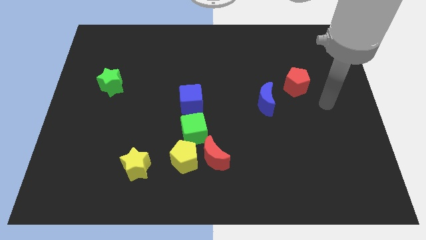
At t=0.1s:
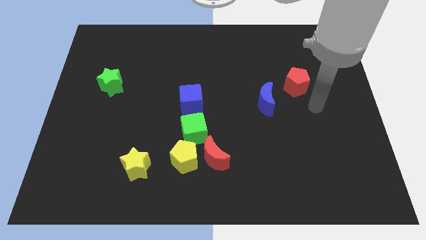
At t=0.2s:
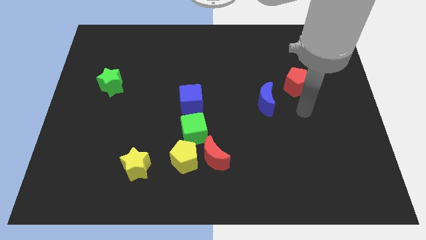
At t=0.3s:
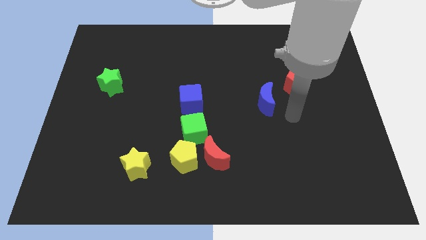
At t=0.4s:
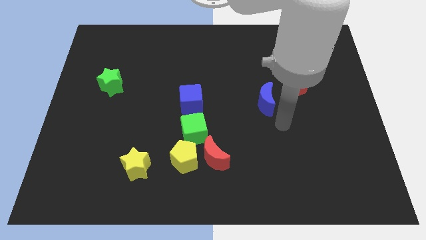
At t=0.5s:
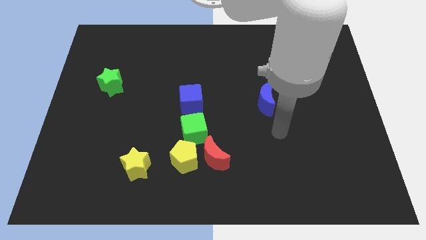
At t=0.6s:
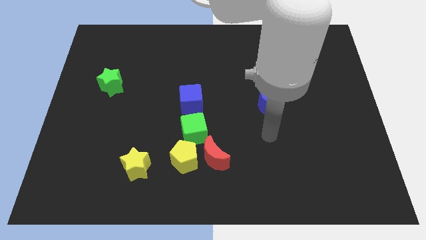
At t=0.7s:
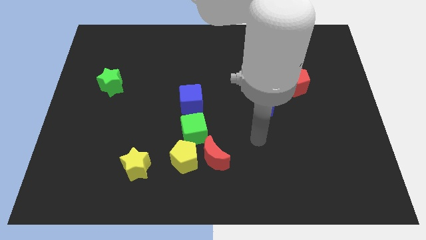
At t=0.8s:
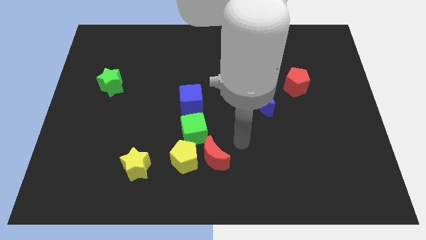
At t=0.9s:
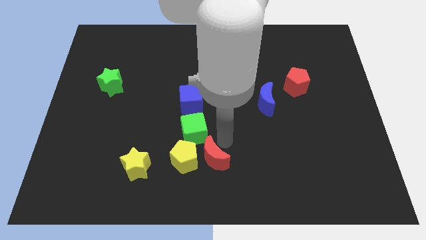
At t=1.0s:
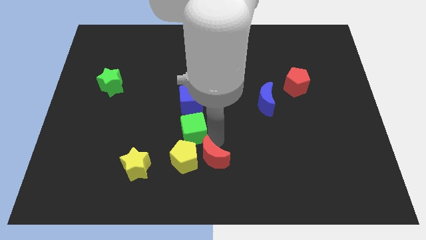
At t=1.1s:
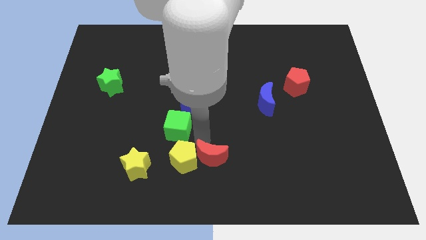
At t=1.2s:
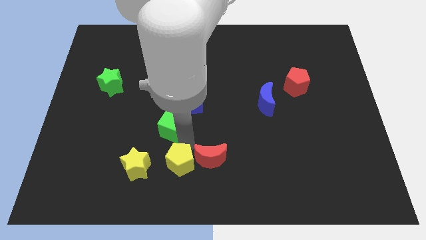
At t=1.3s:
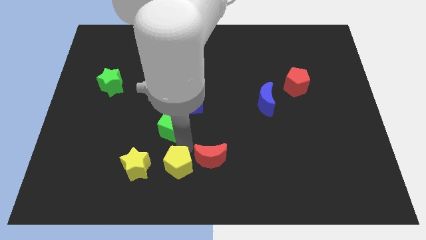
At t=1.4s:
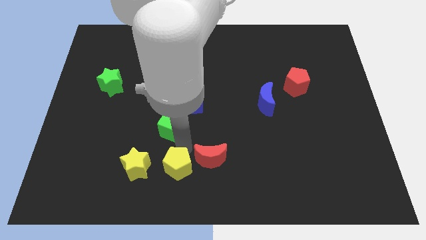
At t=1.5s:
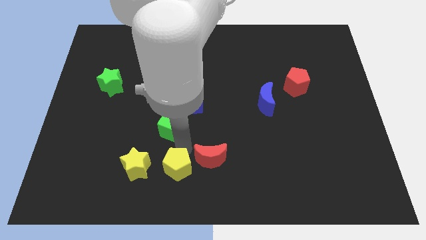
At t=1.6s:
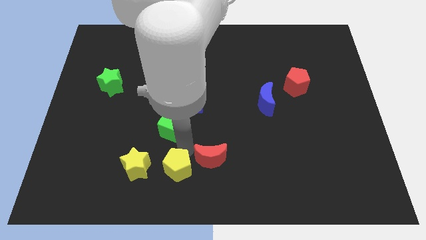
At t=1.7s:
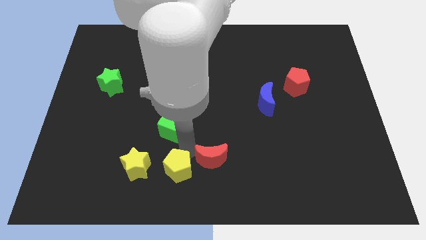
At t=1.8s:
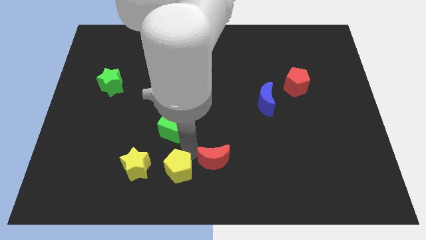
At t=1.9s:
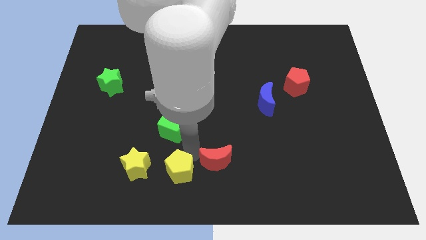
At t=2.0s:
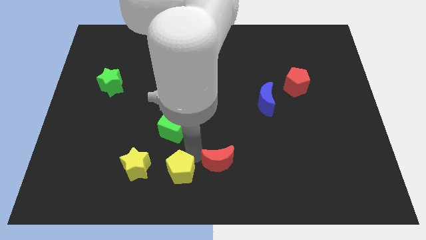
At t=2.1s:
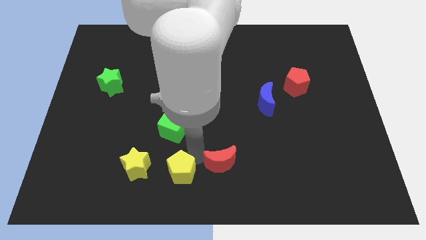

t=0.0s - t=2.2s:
pull the red moon apart from the yellow pentagon and green cube

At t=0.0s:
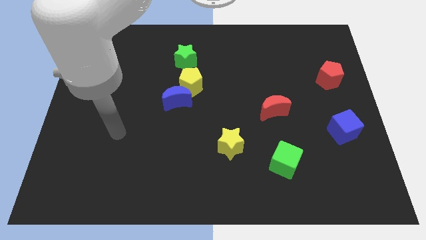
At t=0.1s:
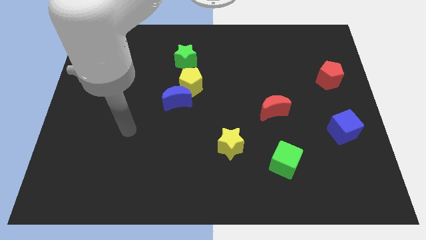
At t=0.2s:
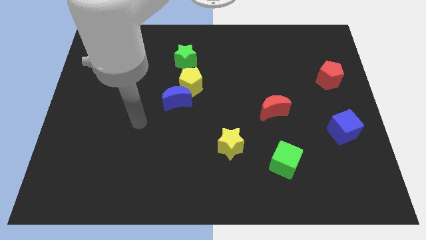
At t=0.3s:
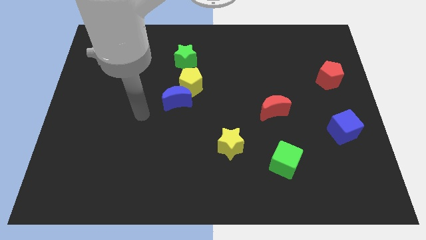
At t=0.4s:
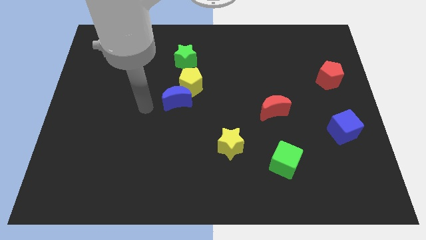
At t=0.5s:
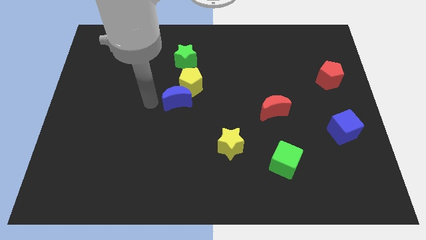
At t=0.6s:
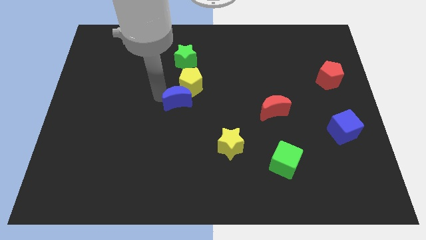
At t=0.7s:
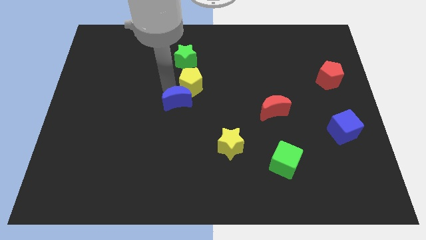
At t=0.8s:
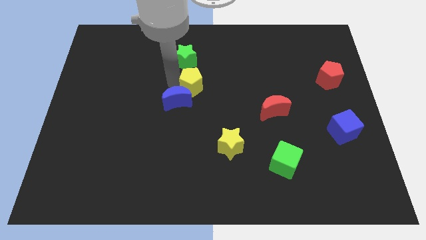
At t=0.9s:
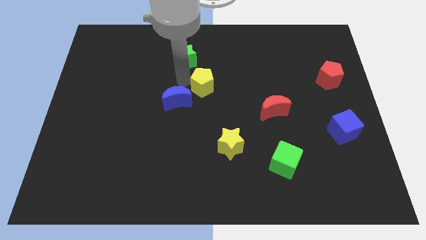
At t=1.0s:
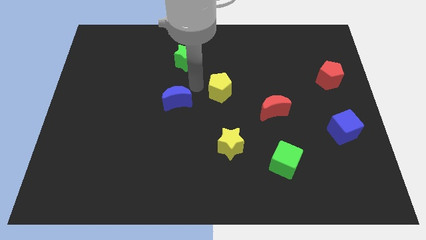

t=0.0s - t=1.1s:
pull the blue moon apart from the yellow pentagon

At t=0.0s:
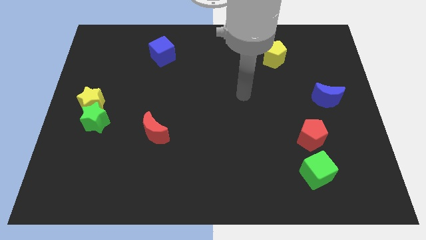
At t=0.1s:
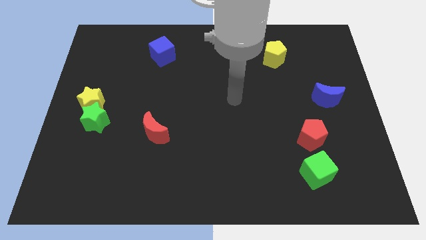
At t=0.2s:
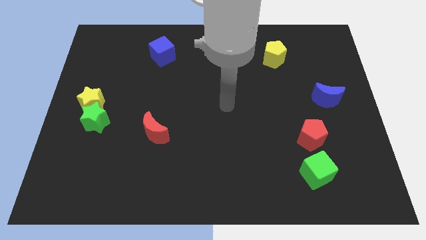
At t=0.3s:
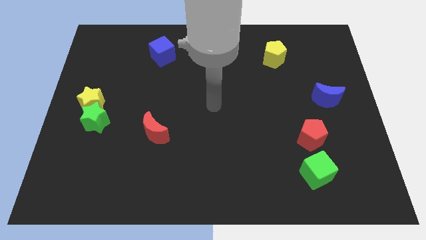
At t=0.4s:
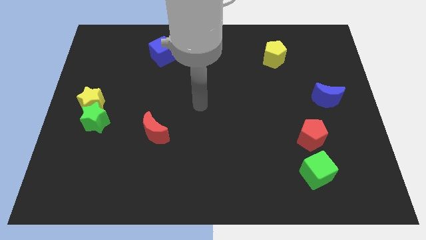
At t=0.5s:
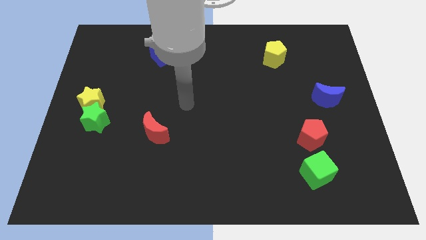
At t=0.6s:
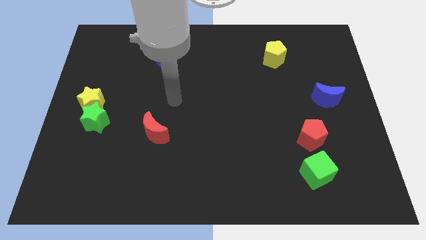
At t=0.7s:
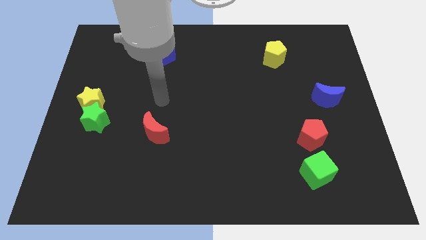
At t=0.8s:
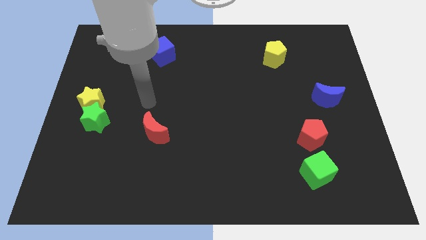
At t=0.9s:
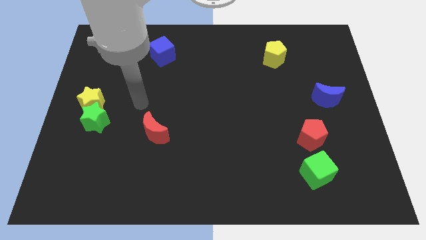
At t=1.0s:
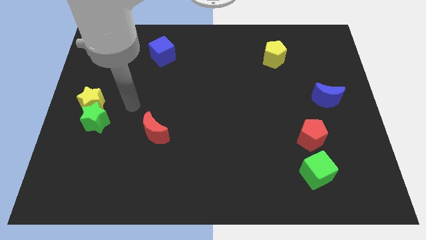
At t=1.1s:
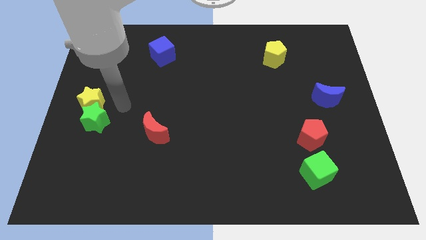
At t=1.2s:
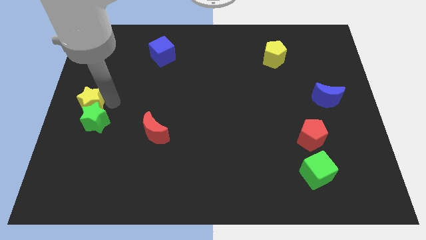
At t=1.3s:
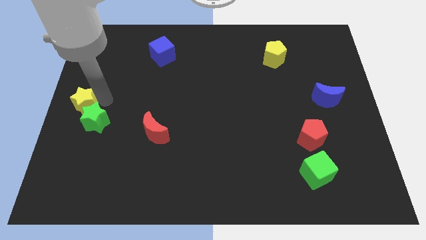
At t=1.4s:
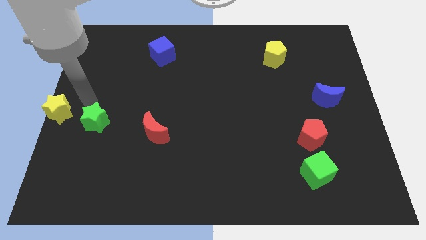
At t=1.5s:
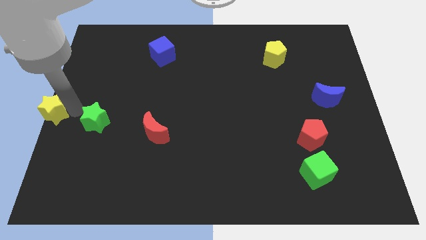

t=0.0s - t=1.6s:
pull the green star apart from the yellow star

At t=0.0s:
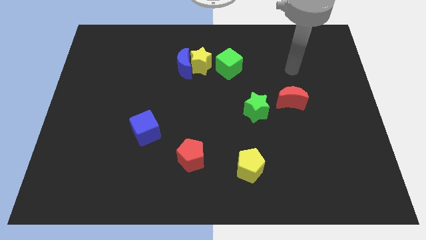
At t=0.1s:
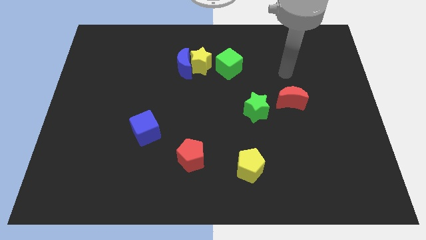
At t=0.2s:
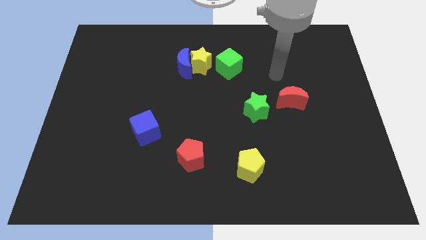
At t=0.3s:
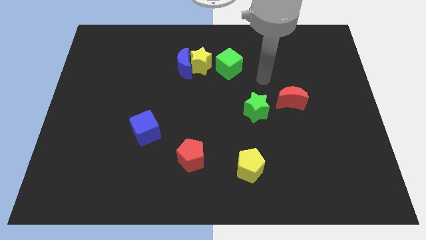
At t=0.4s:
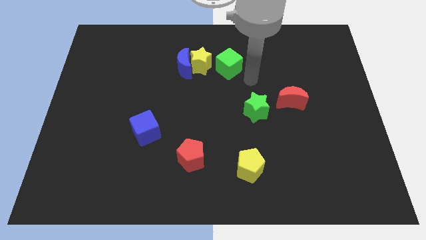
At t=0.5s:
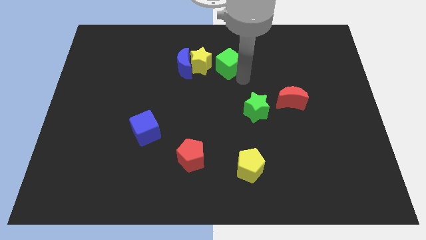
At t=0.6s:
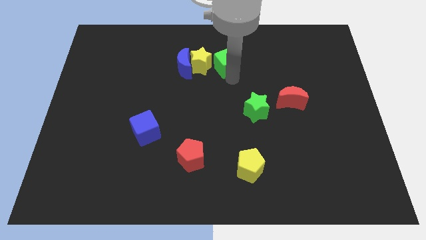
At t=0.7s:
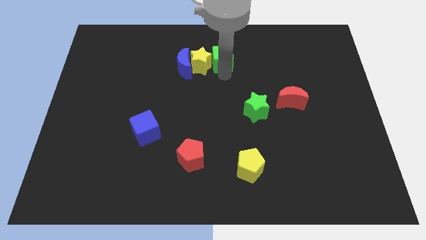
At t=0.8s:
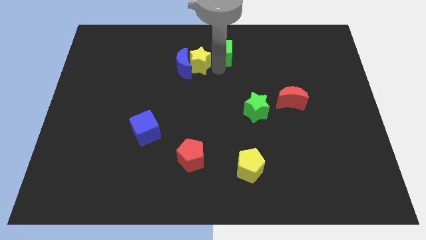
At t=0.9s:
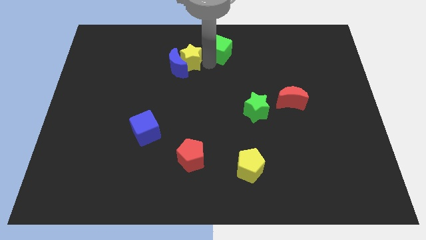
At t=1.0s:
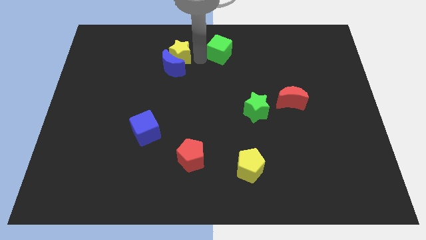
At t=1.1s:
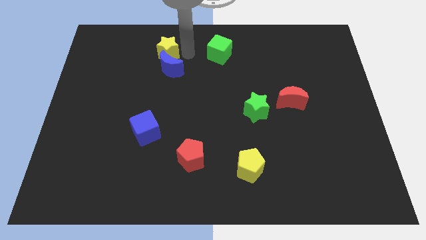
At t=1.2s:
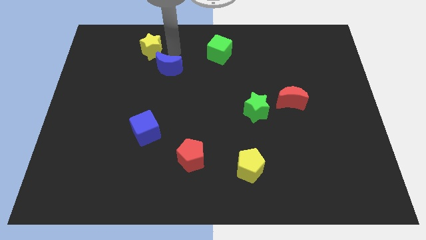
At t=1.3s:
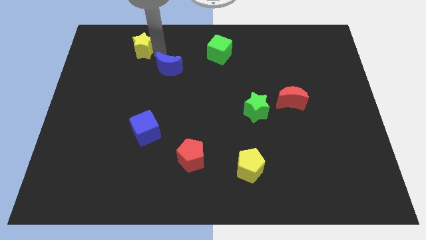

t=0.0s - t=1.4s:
pull the blue moon apart from the yellow star

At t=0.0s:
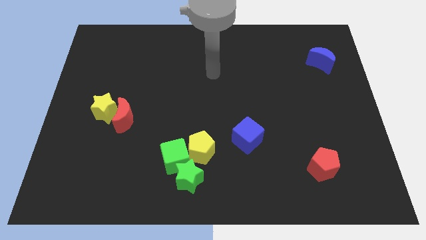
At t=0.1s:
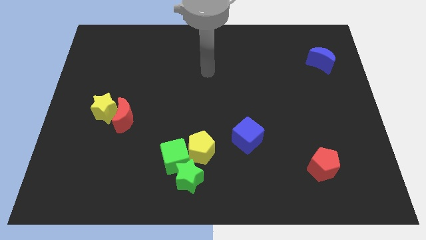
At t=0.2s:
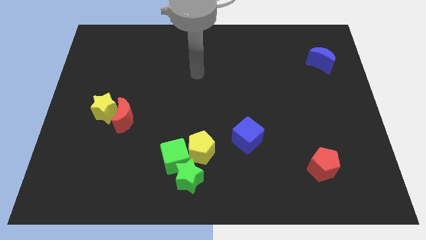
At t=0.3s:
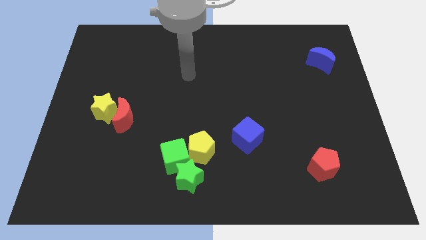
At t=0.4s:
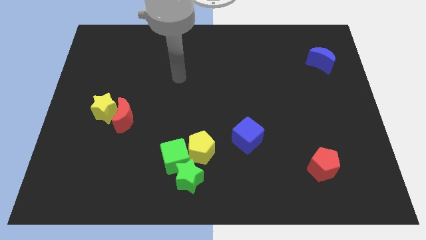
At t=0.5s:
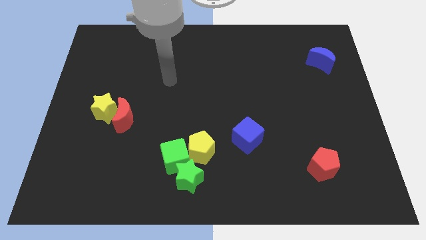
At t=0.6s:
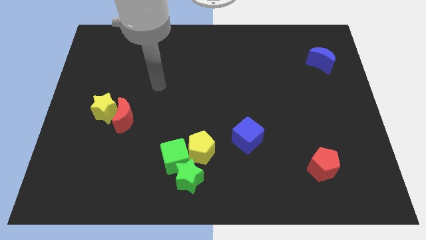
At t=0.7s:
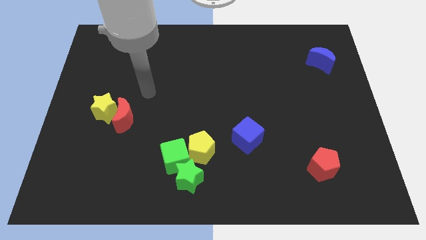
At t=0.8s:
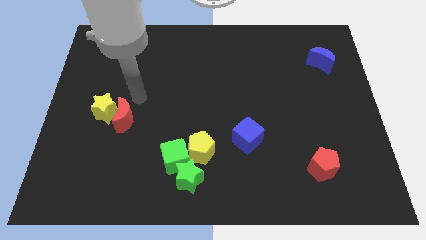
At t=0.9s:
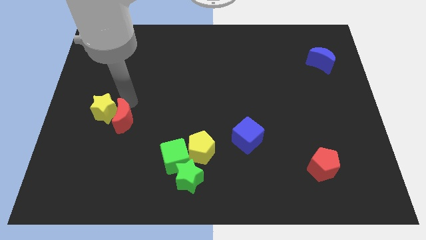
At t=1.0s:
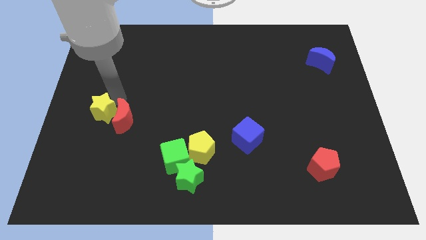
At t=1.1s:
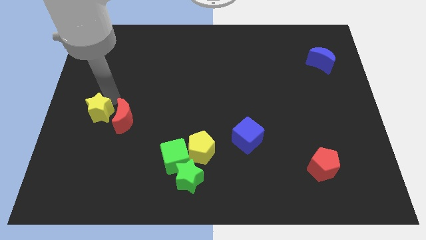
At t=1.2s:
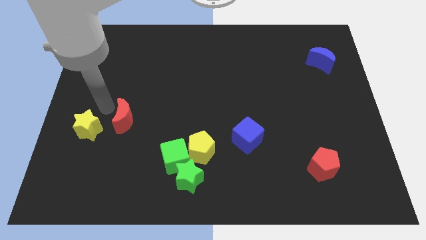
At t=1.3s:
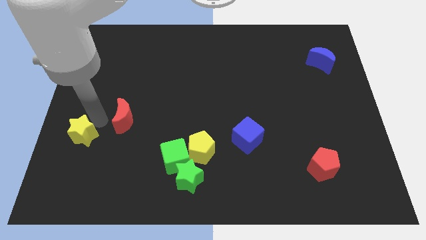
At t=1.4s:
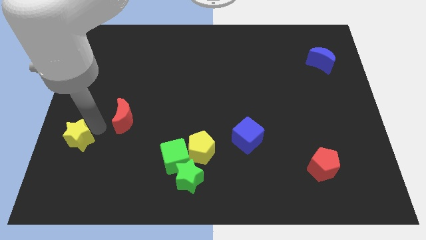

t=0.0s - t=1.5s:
separate the red moon from the yellow star

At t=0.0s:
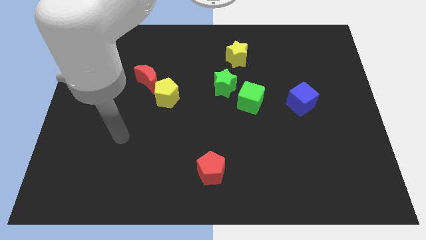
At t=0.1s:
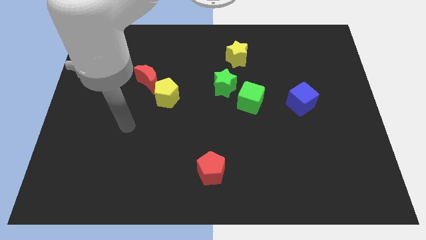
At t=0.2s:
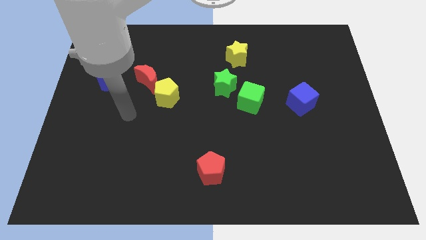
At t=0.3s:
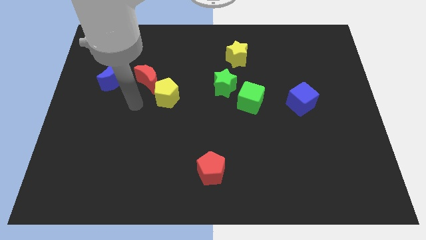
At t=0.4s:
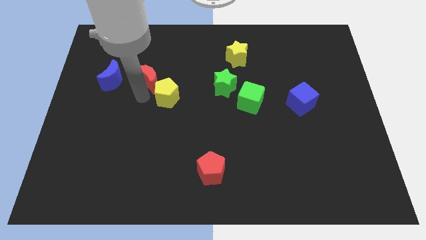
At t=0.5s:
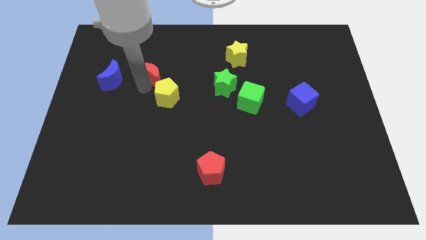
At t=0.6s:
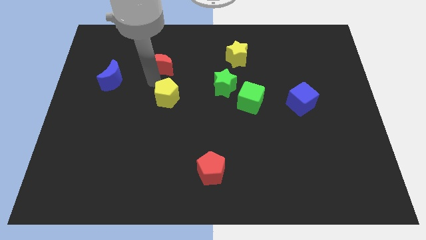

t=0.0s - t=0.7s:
move the yellow pentagon away from the red moon

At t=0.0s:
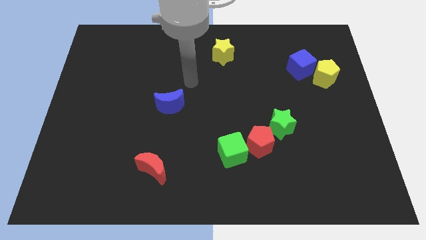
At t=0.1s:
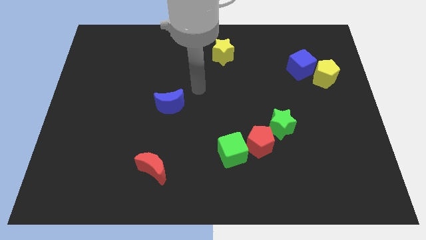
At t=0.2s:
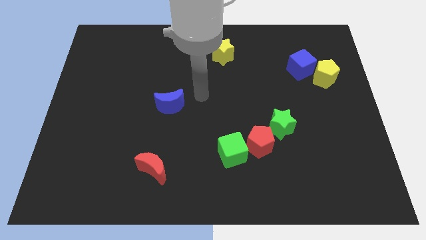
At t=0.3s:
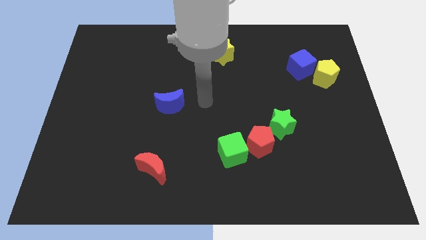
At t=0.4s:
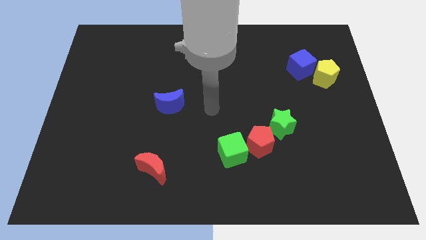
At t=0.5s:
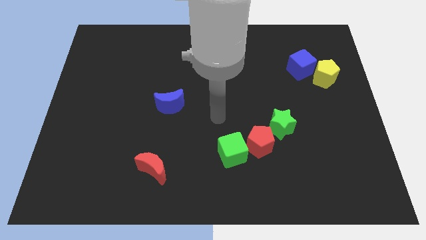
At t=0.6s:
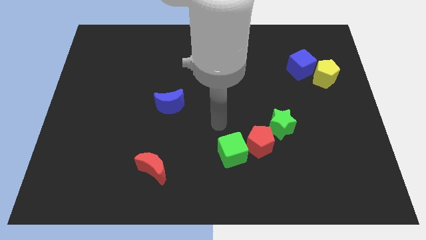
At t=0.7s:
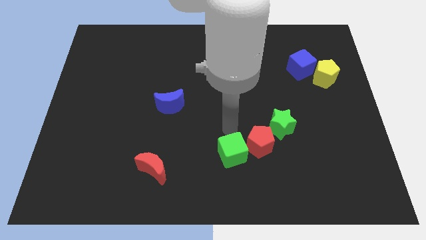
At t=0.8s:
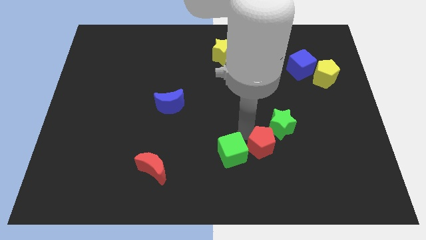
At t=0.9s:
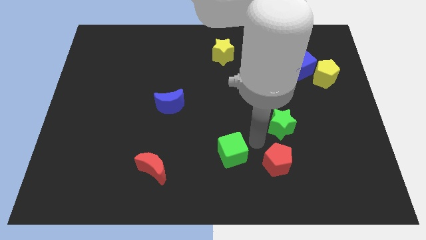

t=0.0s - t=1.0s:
move the green cube away from the red pentagon
